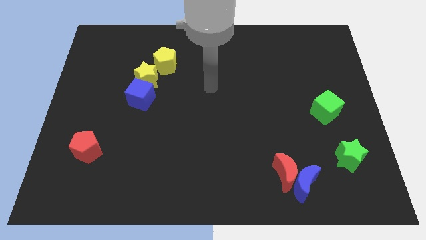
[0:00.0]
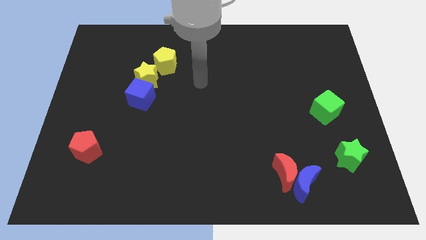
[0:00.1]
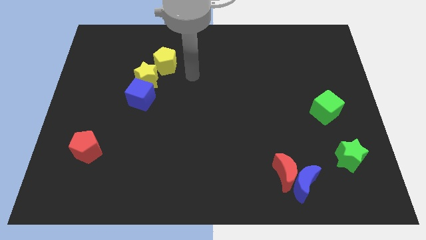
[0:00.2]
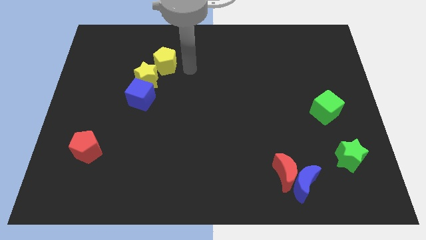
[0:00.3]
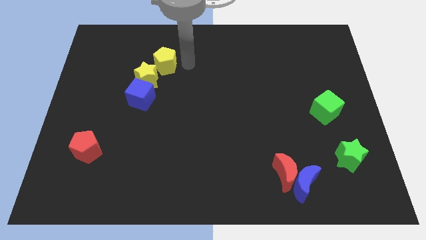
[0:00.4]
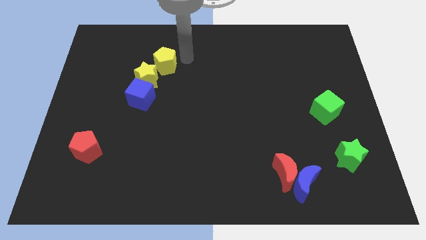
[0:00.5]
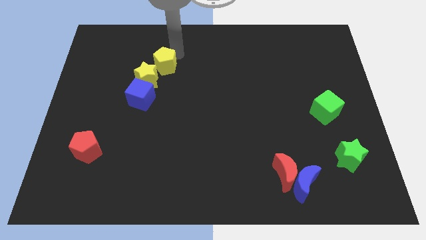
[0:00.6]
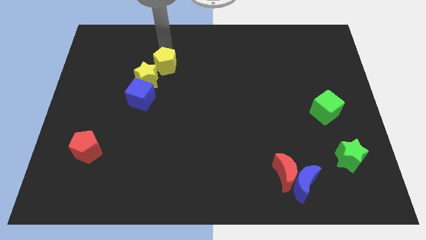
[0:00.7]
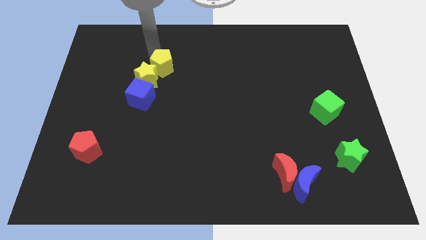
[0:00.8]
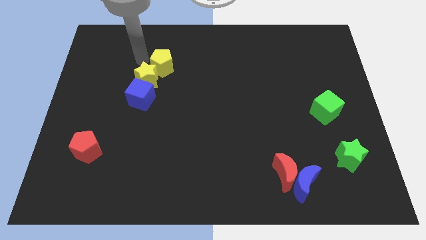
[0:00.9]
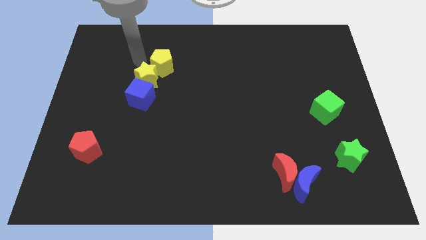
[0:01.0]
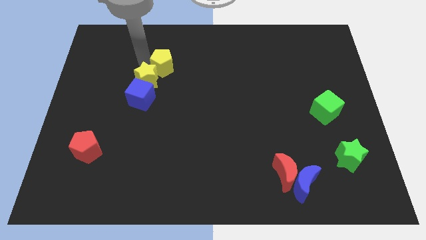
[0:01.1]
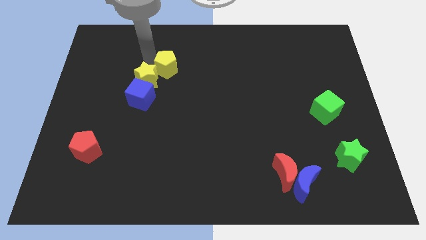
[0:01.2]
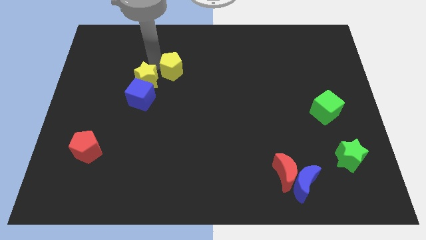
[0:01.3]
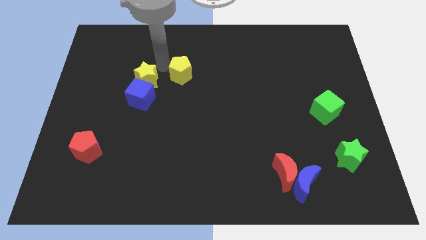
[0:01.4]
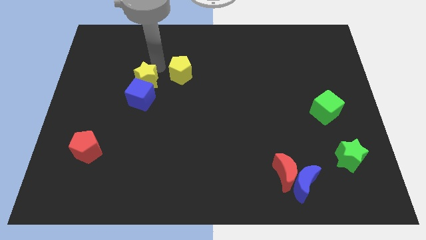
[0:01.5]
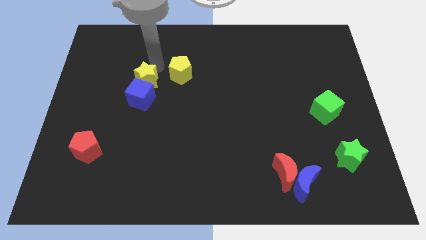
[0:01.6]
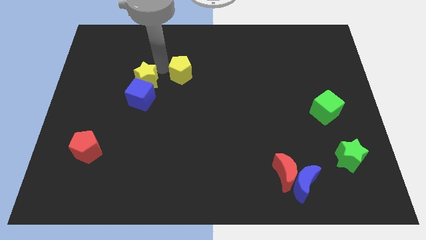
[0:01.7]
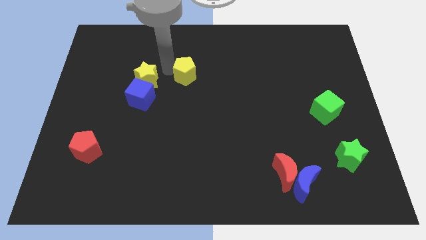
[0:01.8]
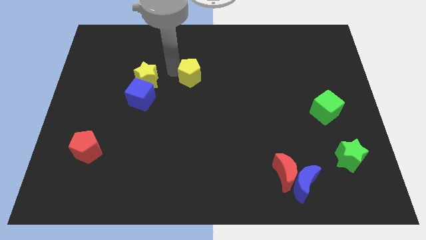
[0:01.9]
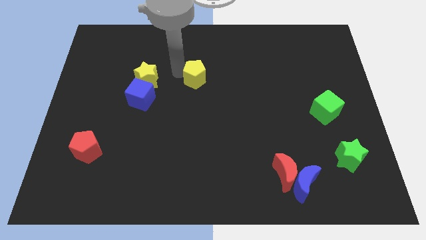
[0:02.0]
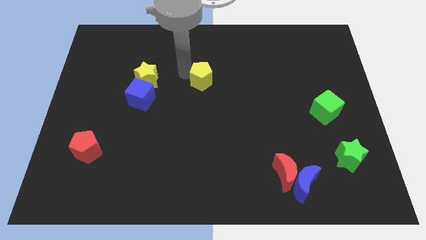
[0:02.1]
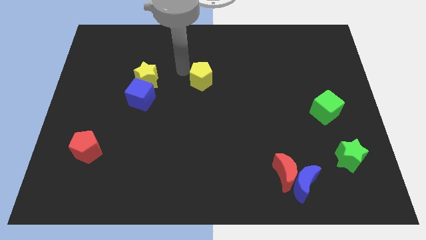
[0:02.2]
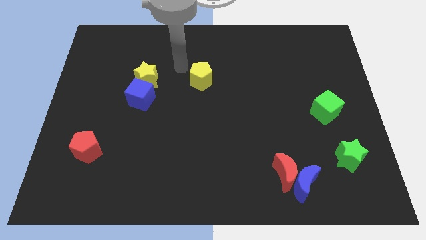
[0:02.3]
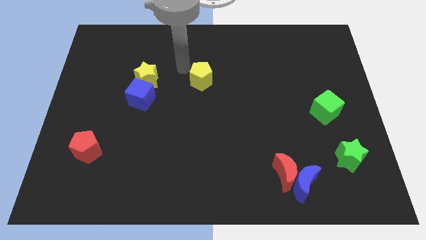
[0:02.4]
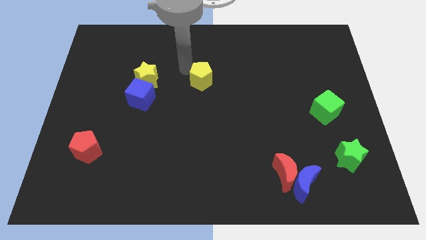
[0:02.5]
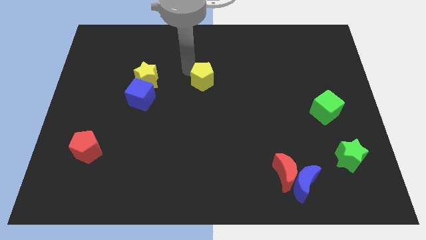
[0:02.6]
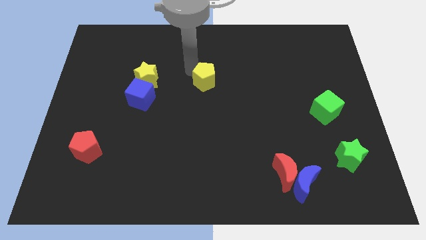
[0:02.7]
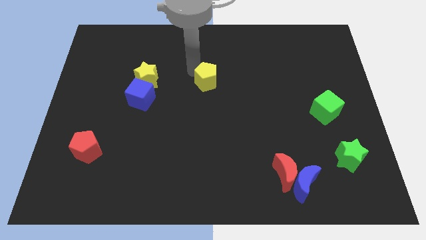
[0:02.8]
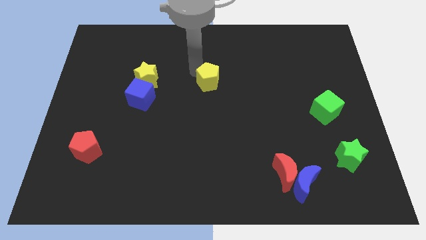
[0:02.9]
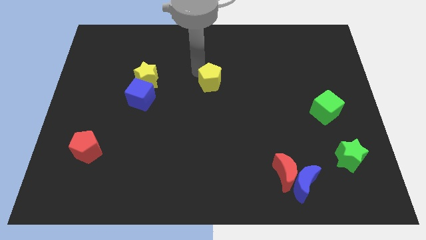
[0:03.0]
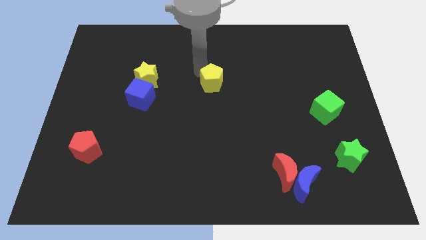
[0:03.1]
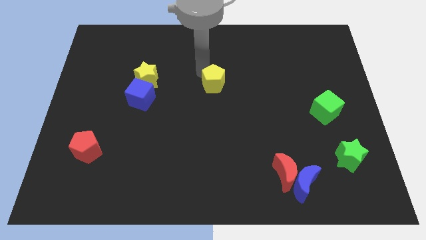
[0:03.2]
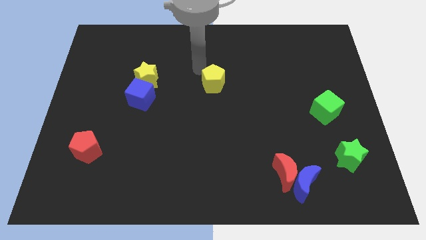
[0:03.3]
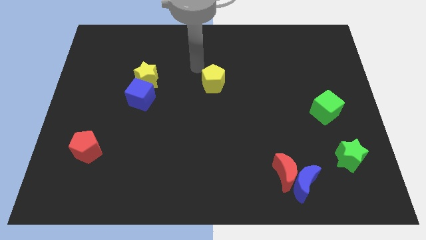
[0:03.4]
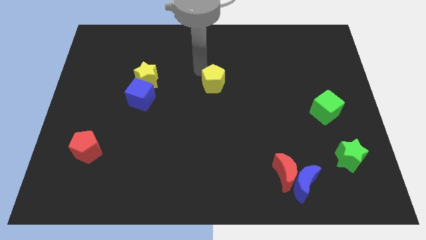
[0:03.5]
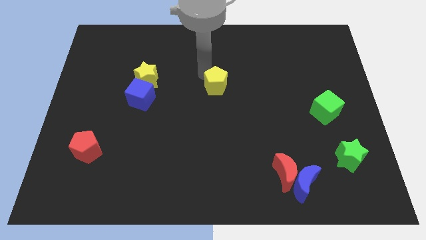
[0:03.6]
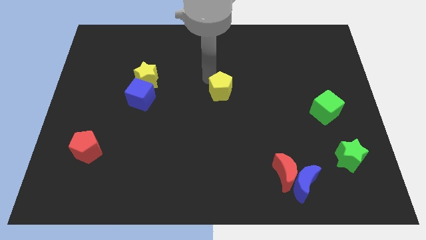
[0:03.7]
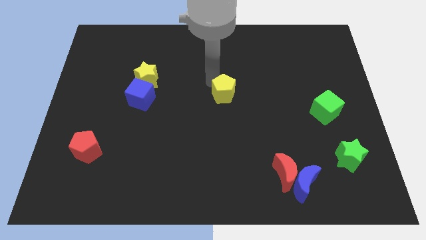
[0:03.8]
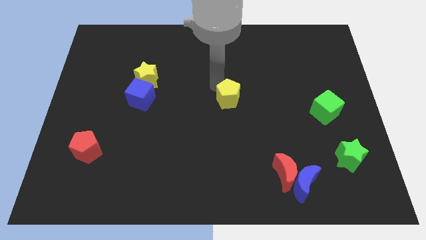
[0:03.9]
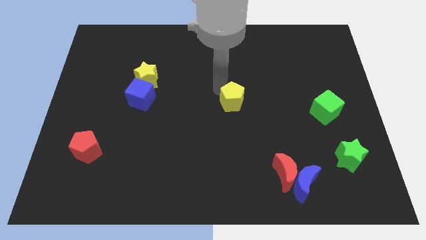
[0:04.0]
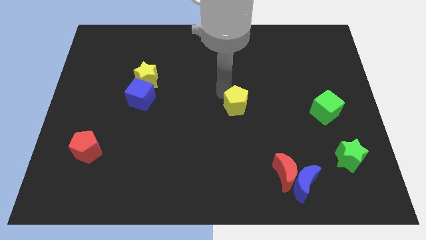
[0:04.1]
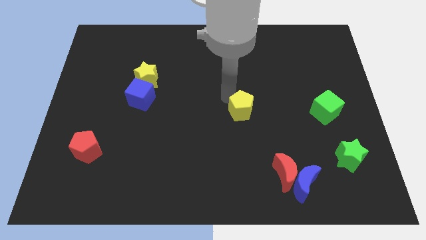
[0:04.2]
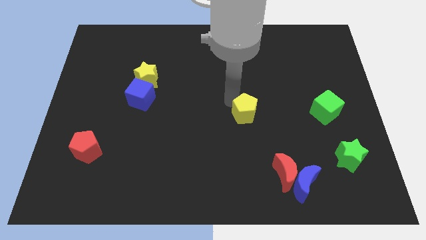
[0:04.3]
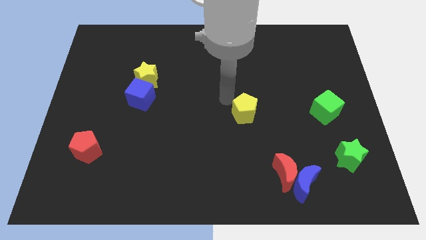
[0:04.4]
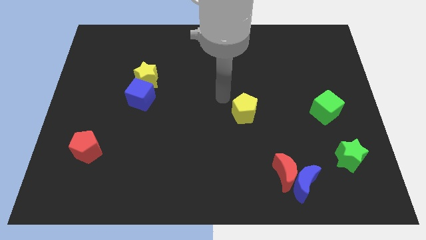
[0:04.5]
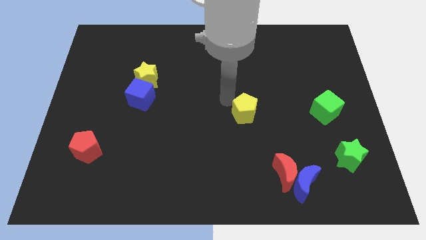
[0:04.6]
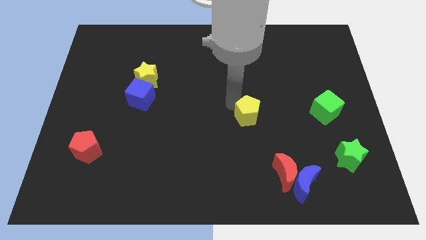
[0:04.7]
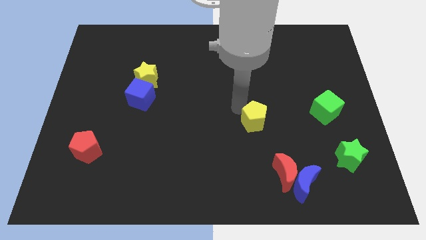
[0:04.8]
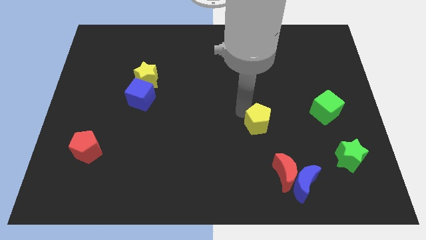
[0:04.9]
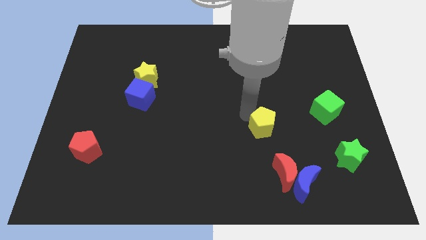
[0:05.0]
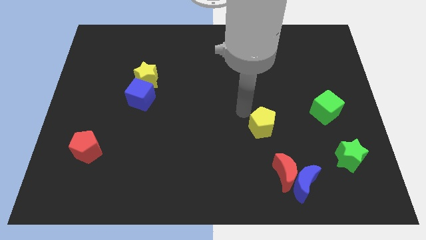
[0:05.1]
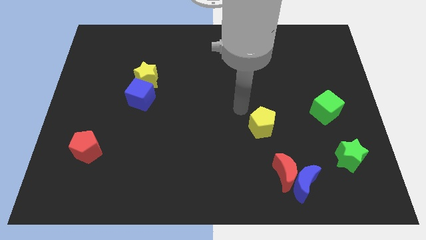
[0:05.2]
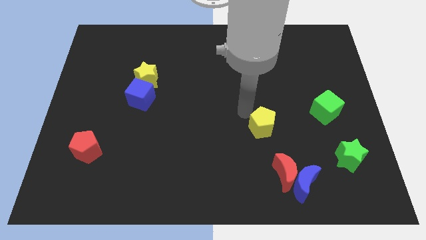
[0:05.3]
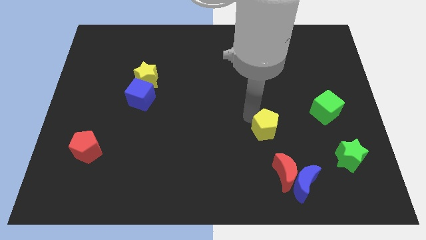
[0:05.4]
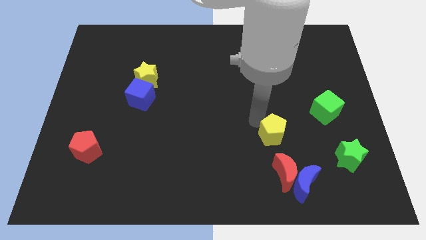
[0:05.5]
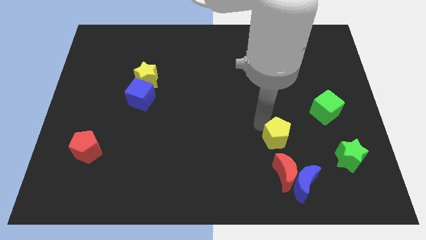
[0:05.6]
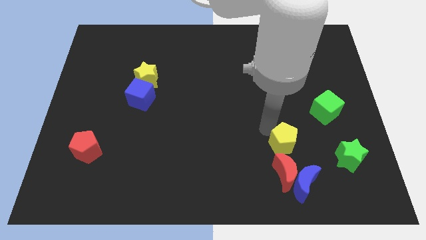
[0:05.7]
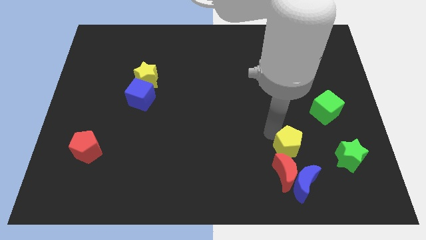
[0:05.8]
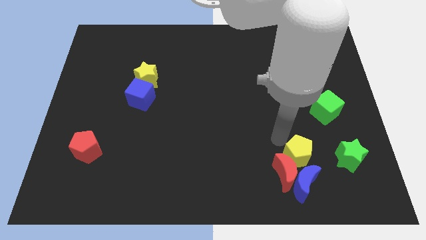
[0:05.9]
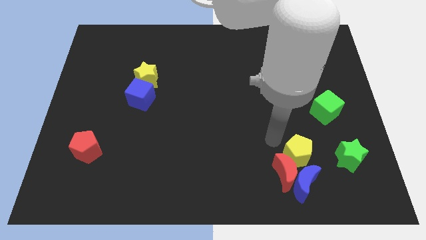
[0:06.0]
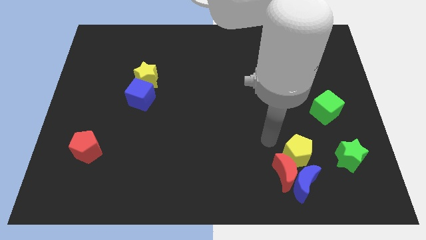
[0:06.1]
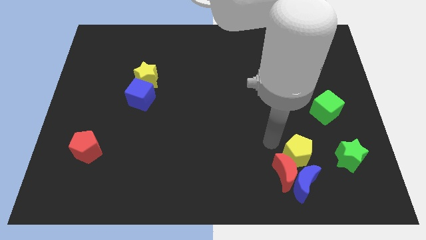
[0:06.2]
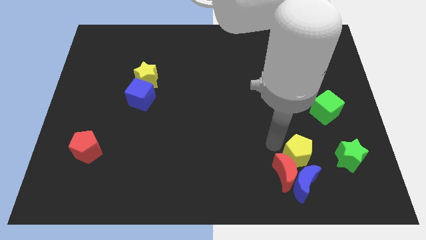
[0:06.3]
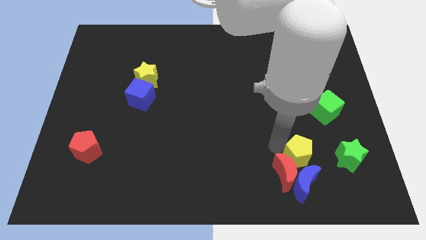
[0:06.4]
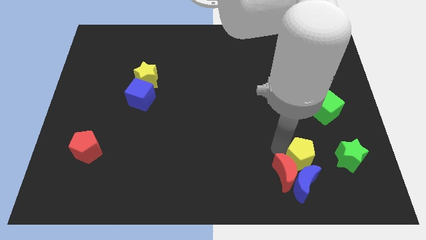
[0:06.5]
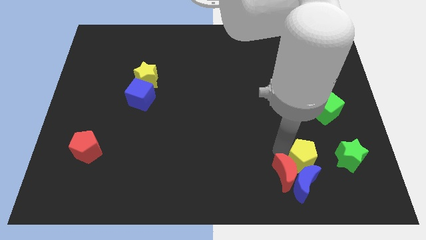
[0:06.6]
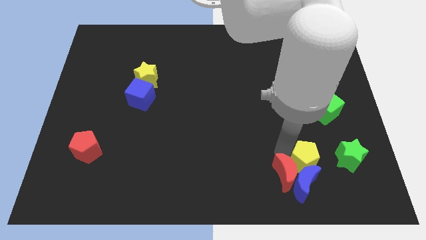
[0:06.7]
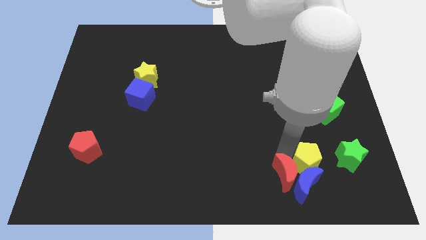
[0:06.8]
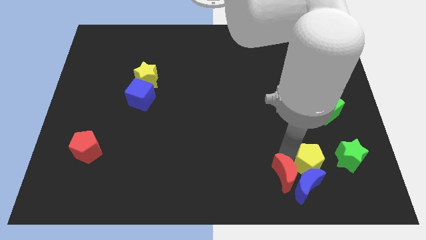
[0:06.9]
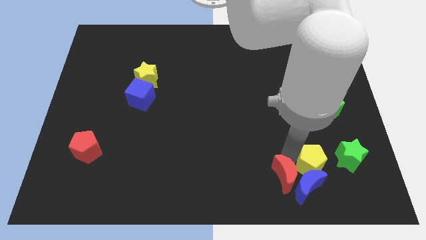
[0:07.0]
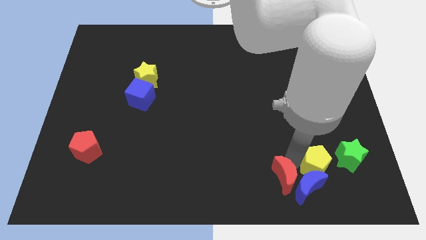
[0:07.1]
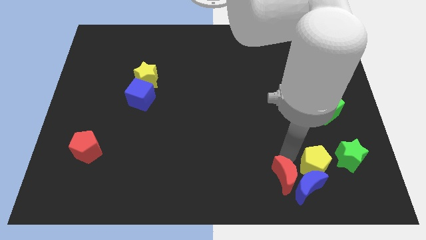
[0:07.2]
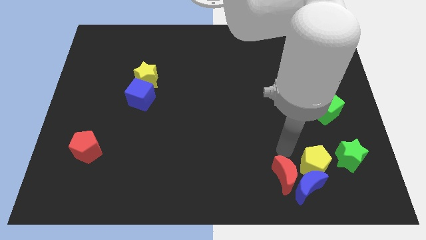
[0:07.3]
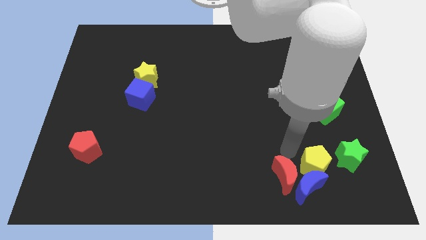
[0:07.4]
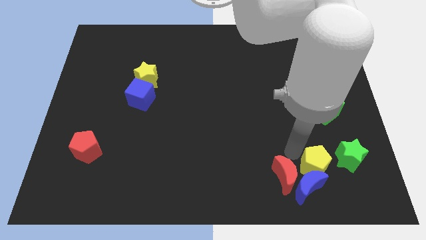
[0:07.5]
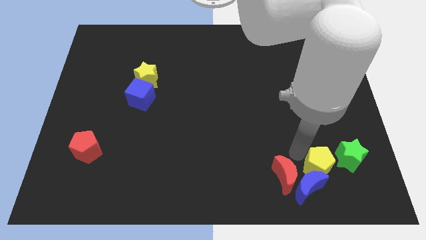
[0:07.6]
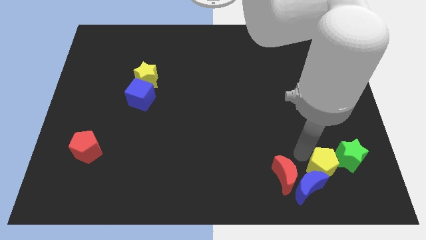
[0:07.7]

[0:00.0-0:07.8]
push the yellow pentagon to the right side of the blue moon
